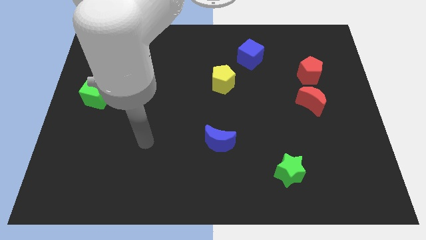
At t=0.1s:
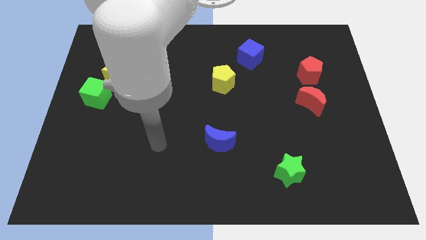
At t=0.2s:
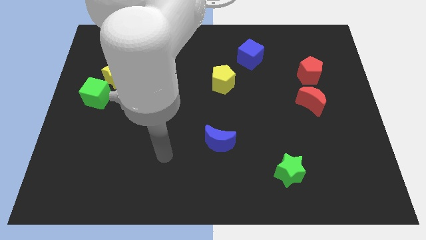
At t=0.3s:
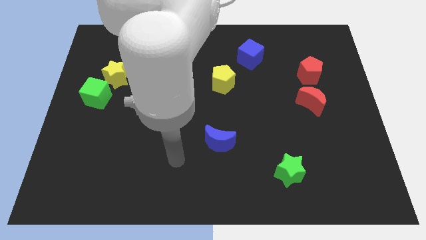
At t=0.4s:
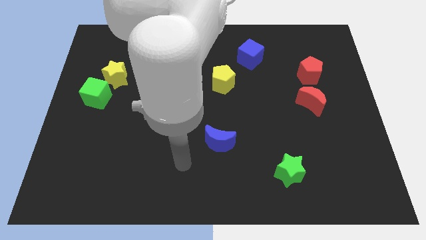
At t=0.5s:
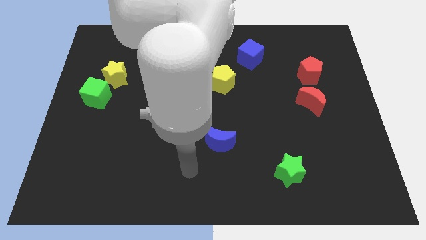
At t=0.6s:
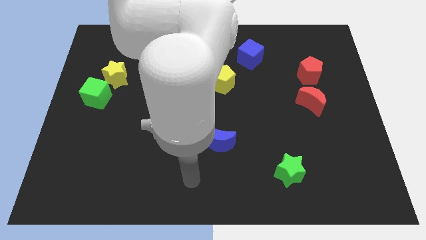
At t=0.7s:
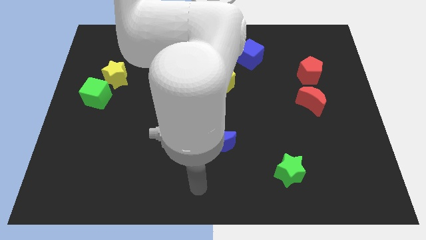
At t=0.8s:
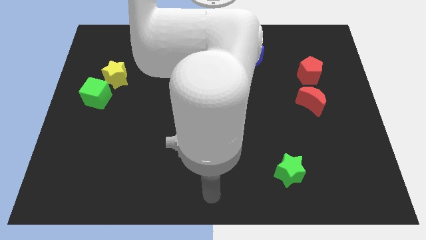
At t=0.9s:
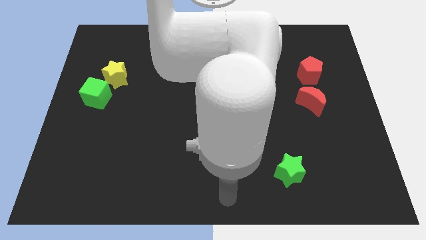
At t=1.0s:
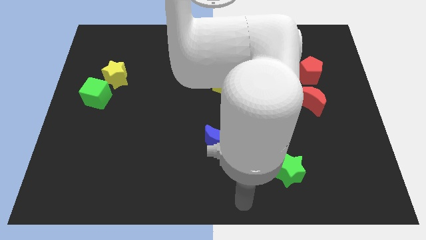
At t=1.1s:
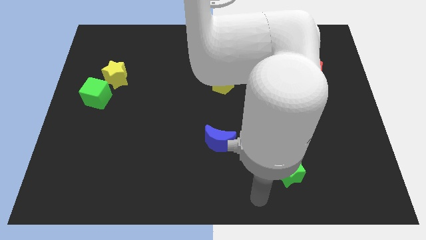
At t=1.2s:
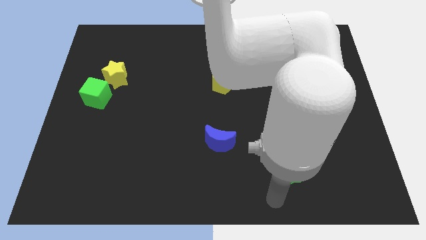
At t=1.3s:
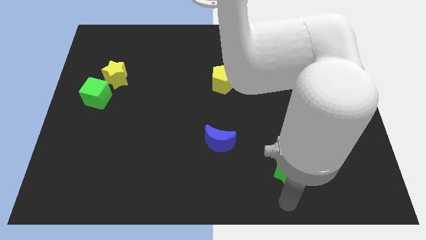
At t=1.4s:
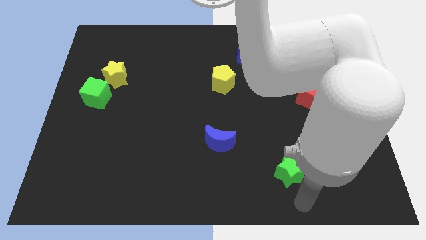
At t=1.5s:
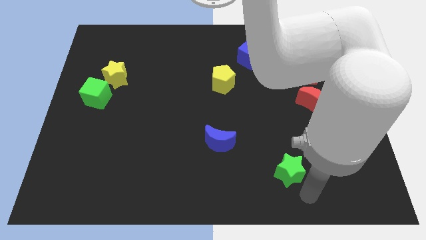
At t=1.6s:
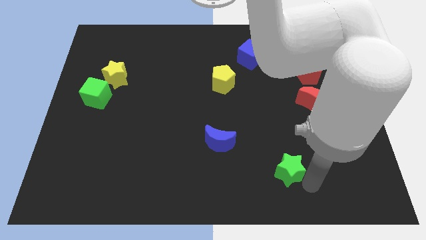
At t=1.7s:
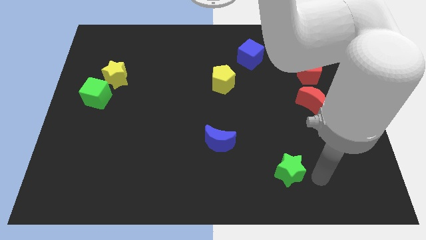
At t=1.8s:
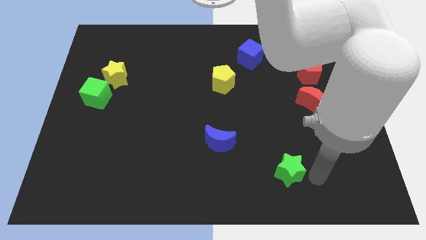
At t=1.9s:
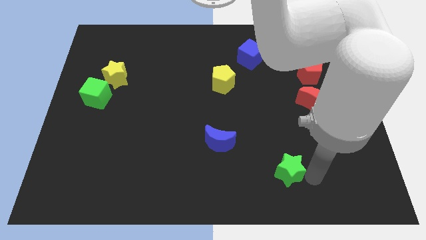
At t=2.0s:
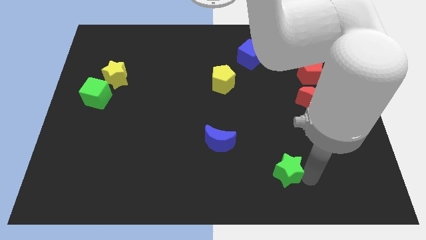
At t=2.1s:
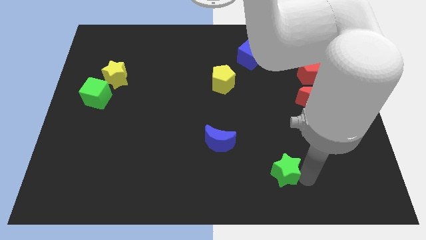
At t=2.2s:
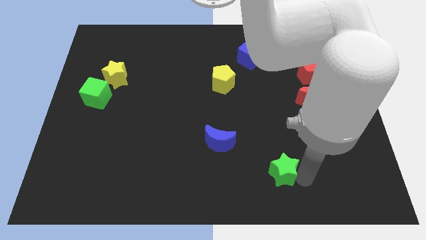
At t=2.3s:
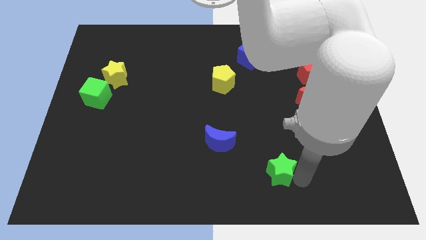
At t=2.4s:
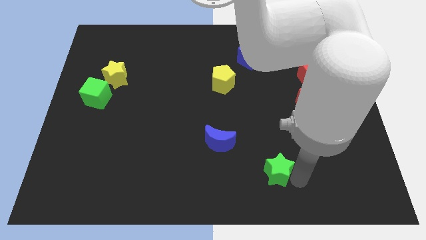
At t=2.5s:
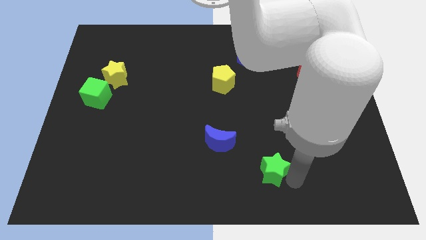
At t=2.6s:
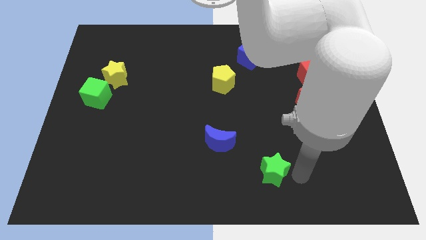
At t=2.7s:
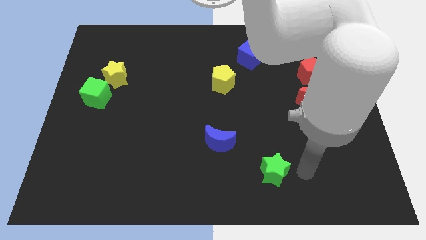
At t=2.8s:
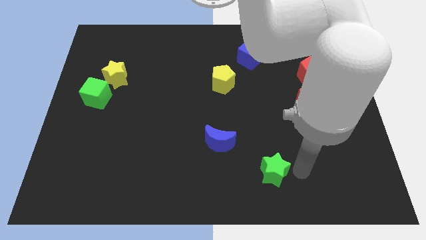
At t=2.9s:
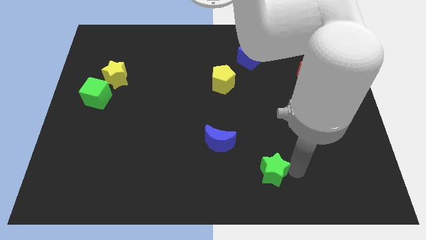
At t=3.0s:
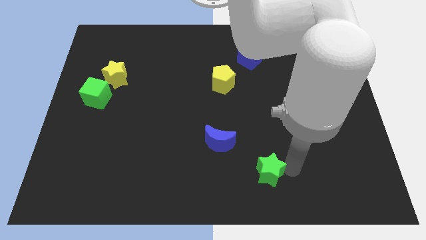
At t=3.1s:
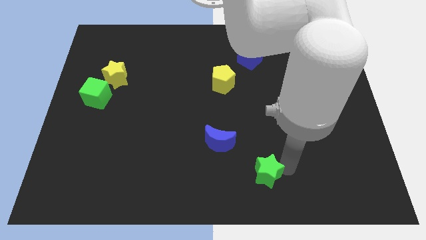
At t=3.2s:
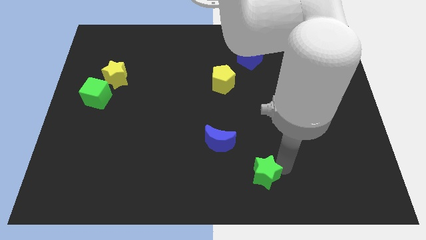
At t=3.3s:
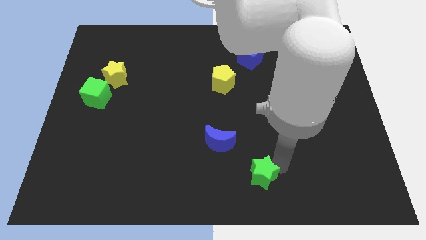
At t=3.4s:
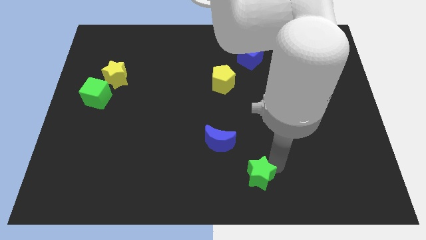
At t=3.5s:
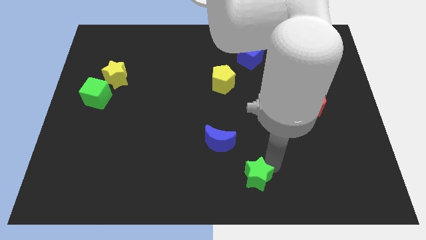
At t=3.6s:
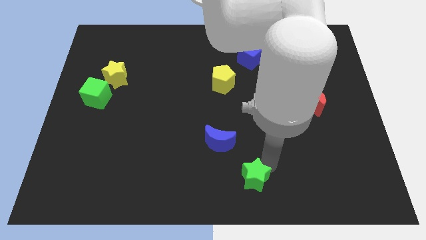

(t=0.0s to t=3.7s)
slightly move the green star left

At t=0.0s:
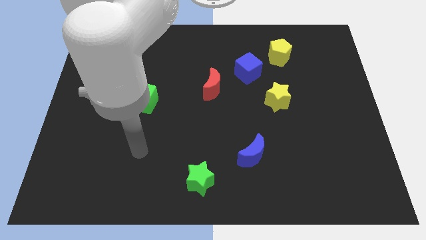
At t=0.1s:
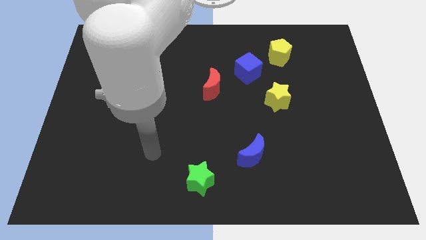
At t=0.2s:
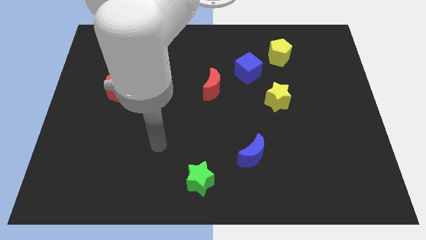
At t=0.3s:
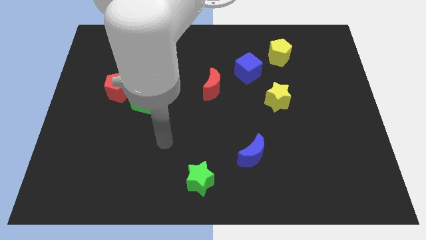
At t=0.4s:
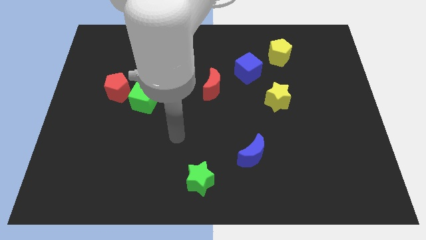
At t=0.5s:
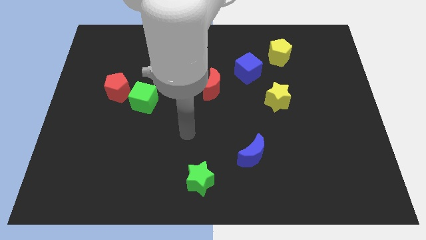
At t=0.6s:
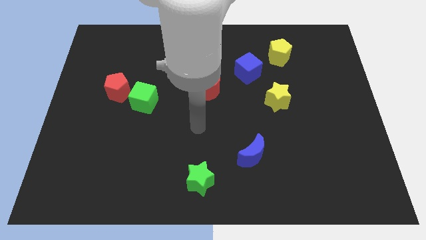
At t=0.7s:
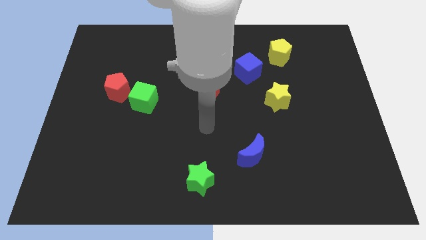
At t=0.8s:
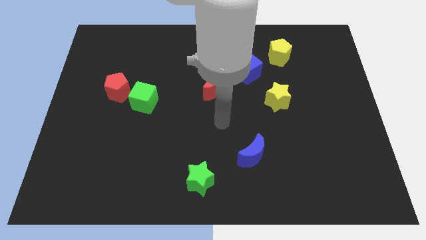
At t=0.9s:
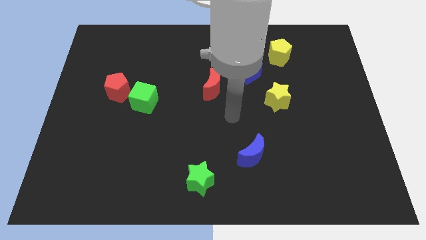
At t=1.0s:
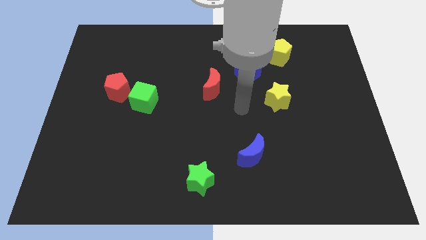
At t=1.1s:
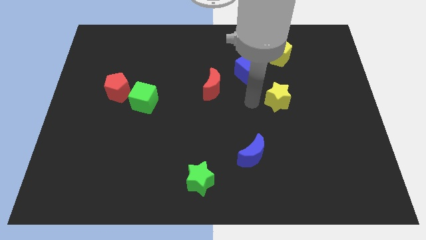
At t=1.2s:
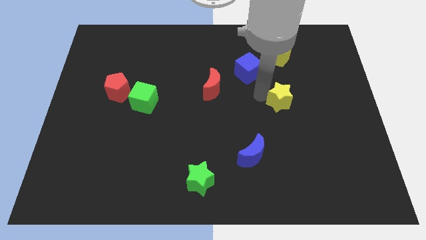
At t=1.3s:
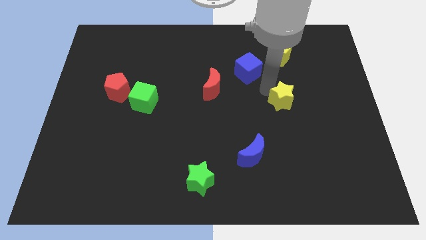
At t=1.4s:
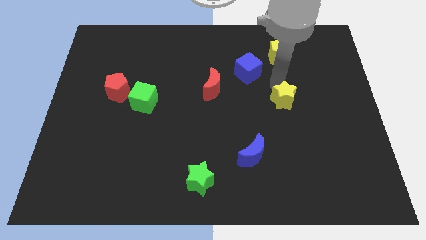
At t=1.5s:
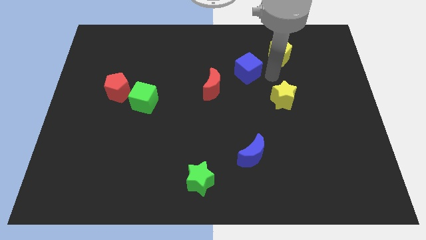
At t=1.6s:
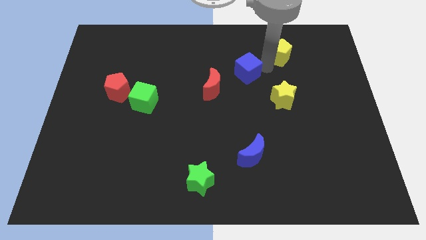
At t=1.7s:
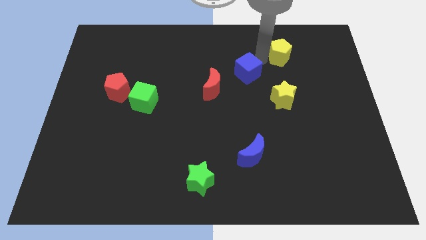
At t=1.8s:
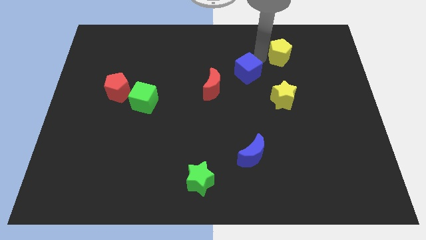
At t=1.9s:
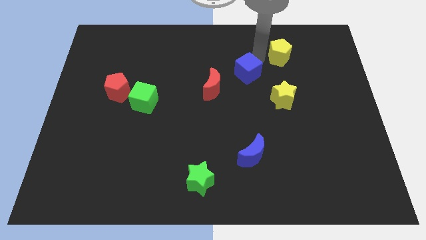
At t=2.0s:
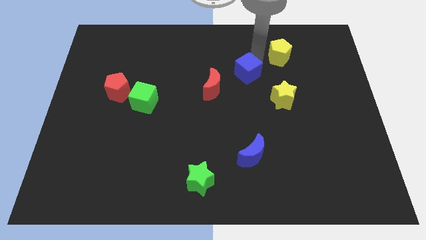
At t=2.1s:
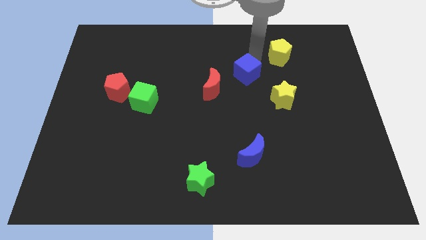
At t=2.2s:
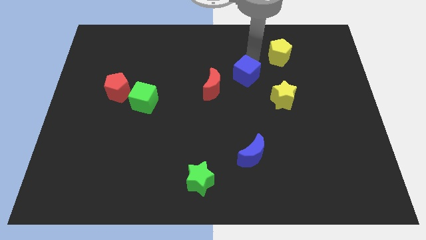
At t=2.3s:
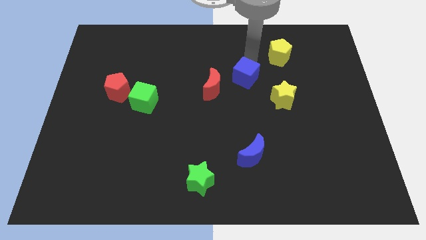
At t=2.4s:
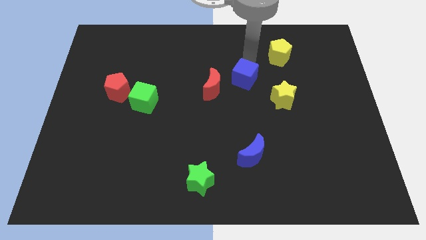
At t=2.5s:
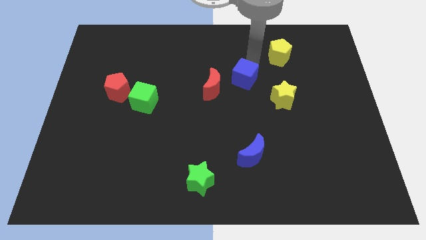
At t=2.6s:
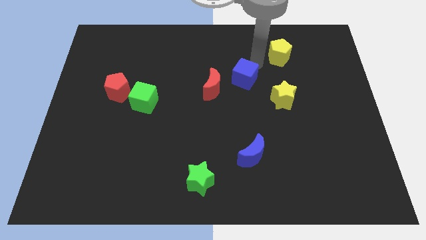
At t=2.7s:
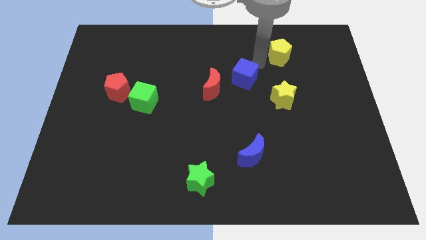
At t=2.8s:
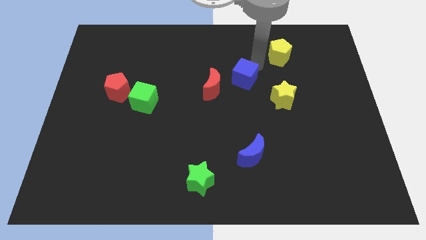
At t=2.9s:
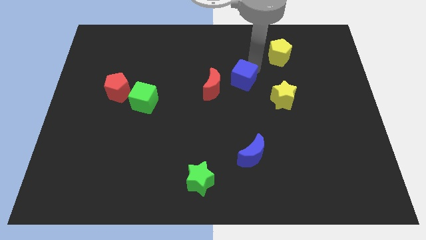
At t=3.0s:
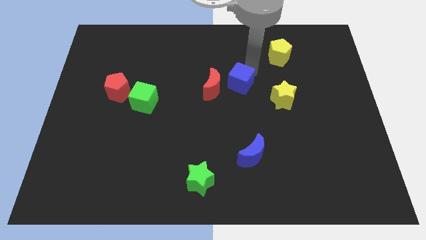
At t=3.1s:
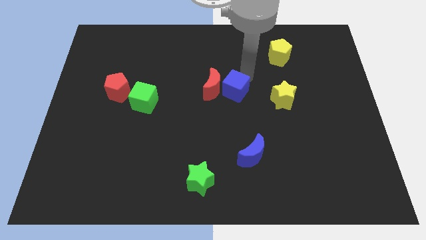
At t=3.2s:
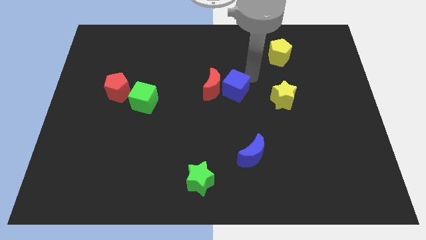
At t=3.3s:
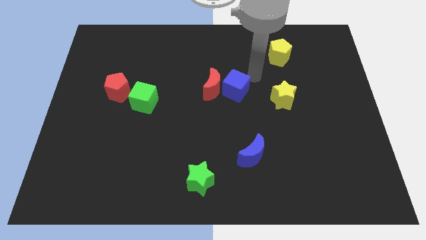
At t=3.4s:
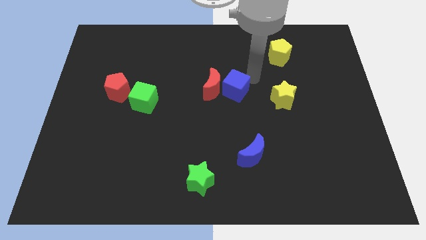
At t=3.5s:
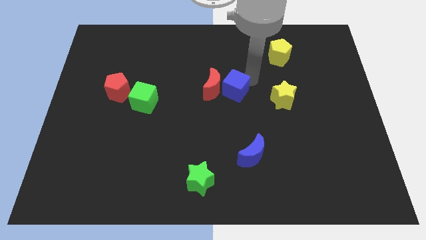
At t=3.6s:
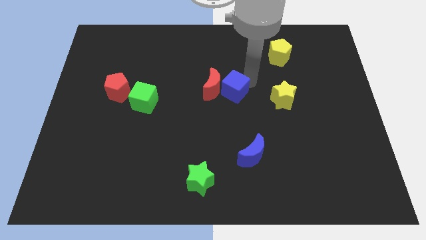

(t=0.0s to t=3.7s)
slightly move the blue cube downwards and to the left diagonally

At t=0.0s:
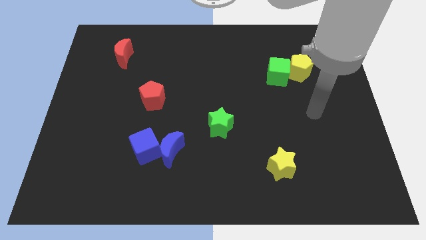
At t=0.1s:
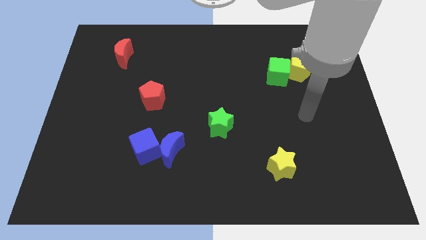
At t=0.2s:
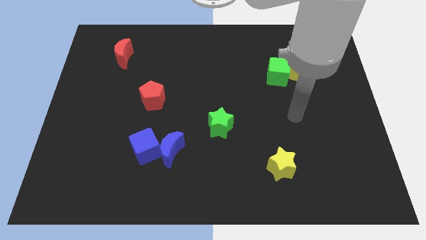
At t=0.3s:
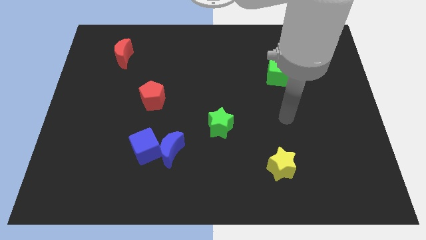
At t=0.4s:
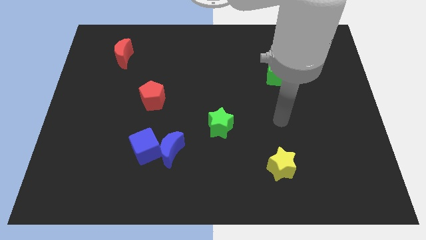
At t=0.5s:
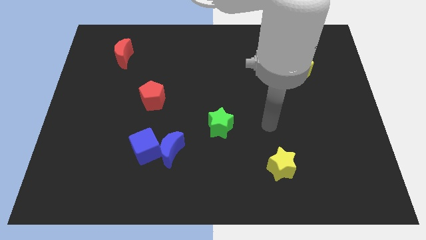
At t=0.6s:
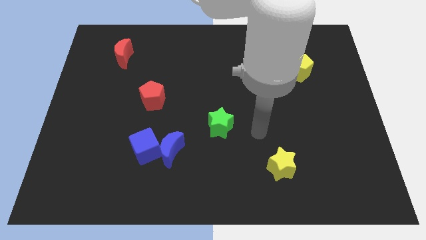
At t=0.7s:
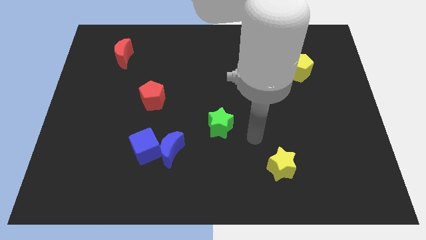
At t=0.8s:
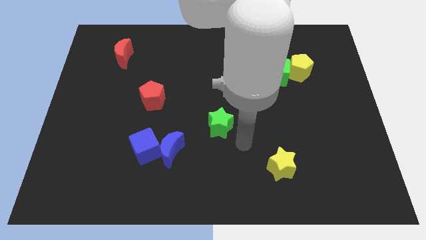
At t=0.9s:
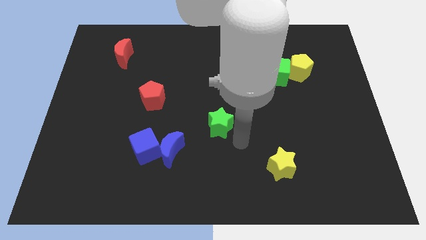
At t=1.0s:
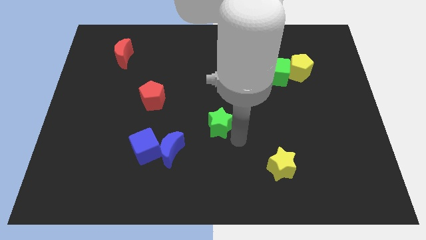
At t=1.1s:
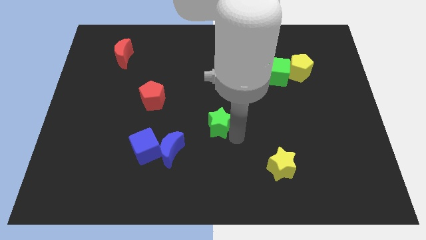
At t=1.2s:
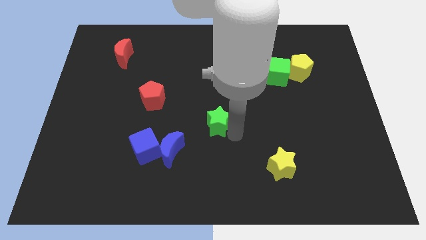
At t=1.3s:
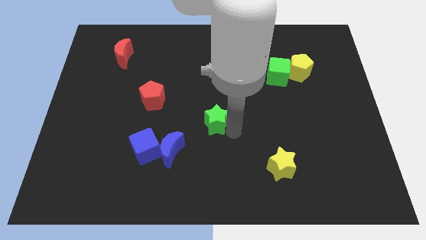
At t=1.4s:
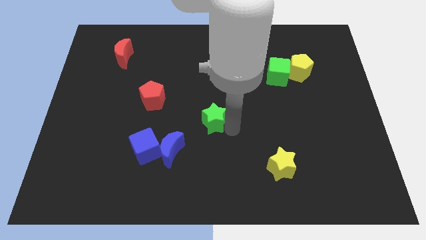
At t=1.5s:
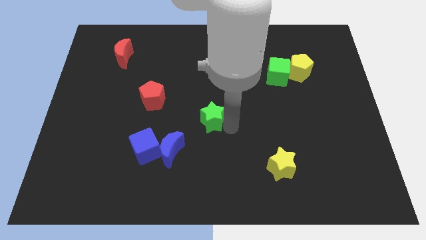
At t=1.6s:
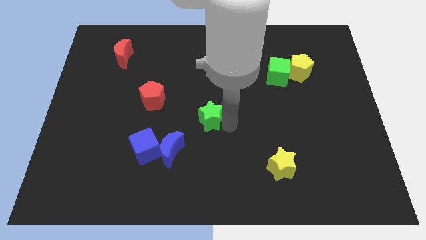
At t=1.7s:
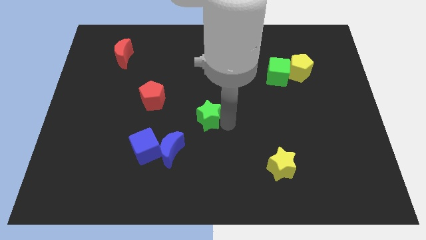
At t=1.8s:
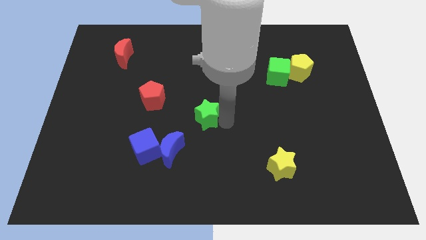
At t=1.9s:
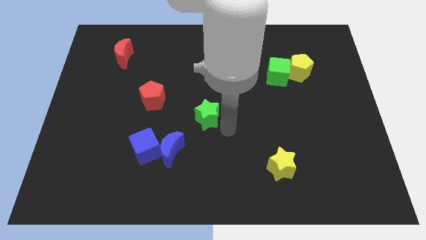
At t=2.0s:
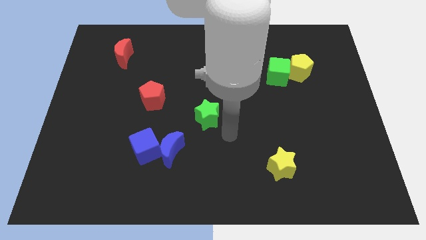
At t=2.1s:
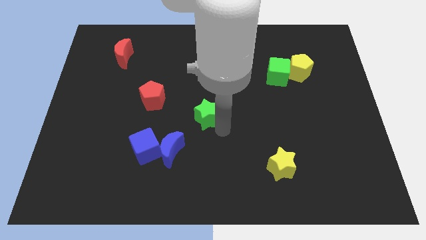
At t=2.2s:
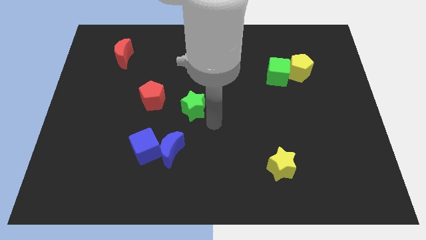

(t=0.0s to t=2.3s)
move the green star a bit upwards and to the left diagonally
